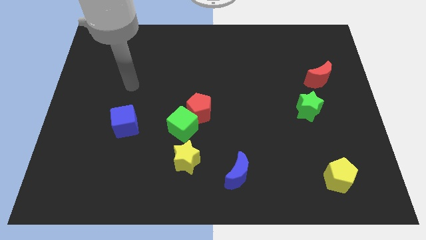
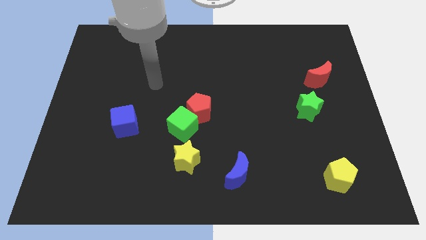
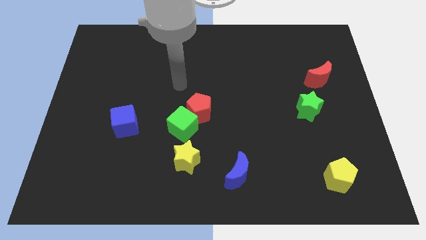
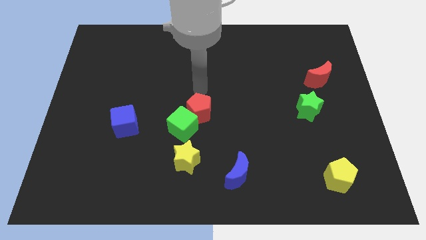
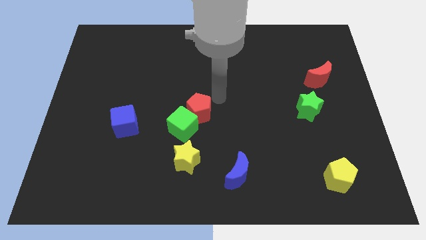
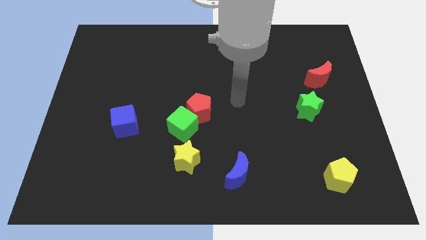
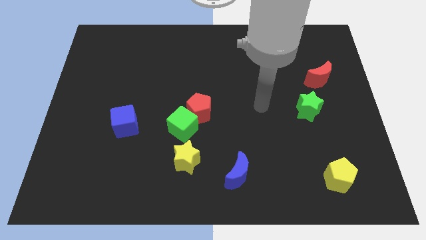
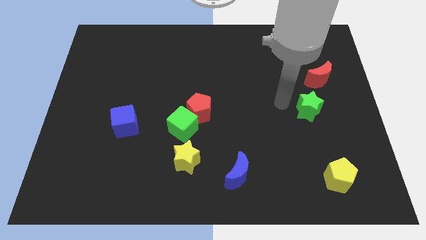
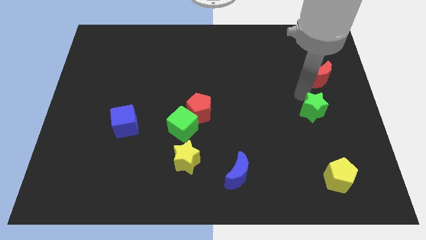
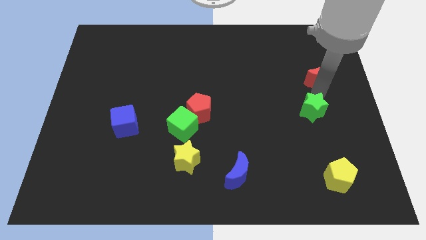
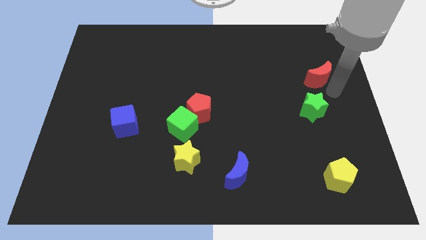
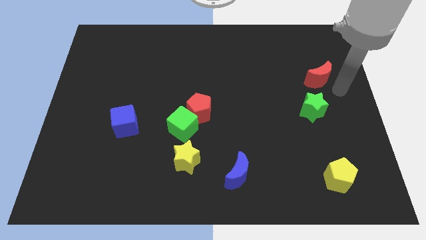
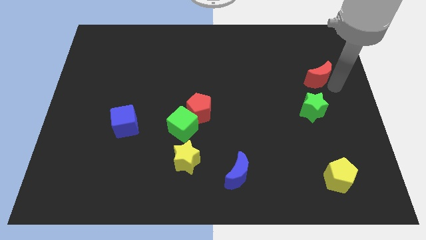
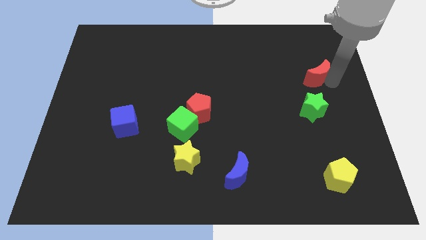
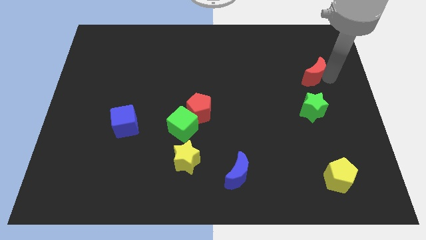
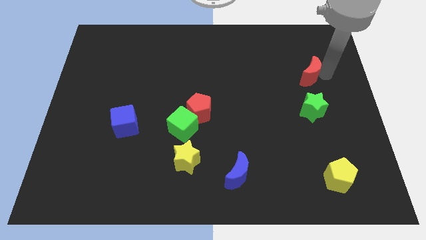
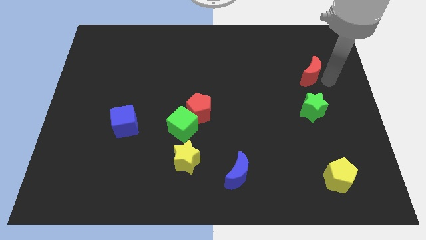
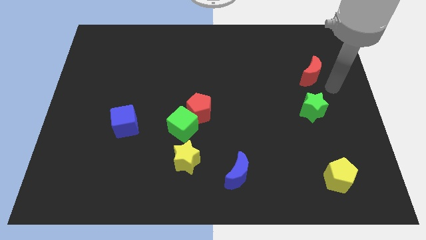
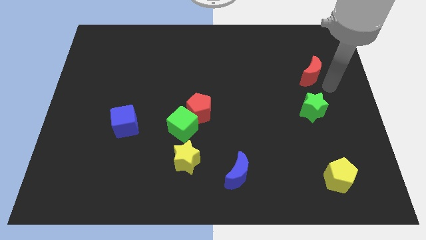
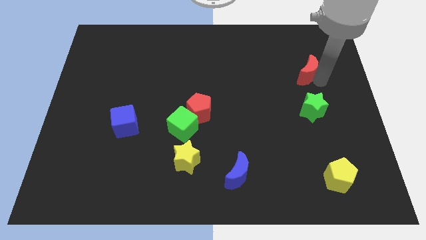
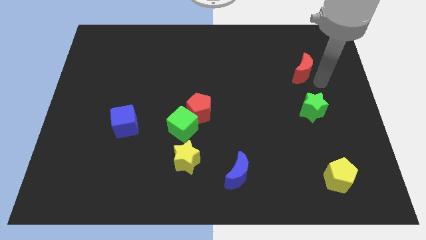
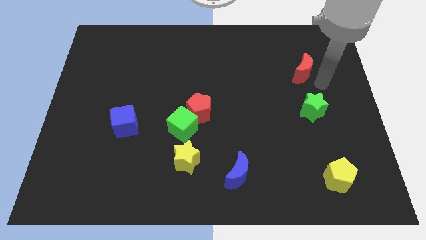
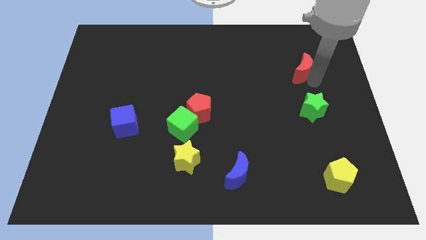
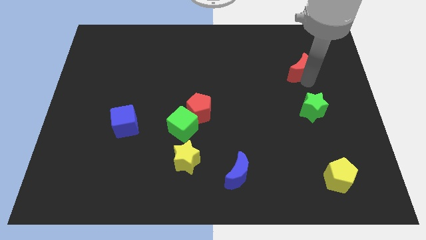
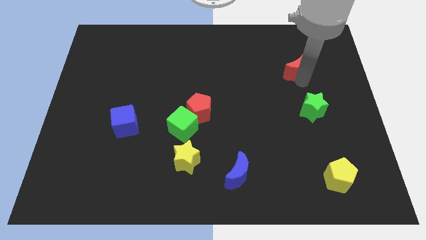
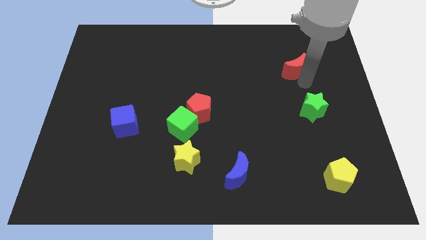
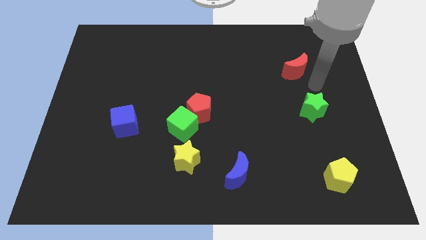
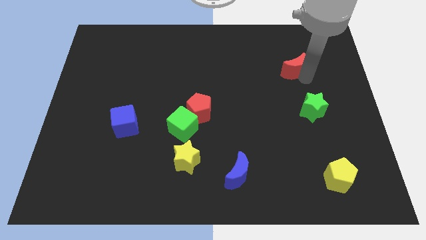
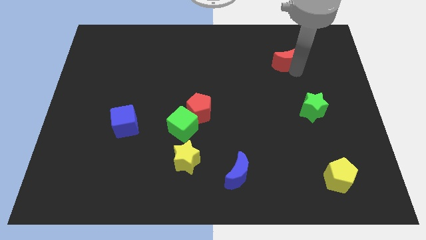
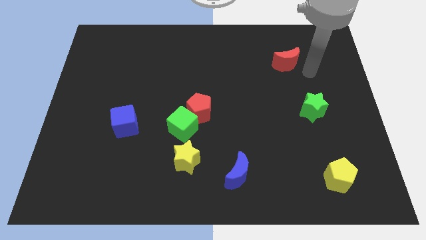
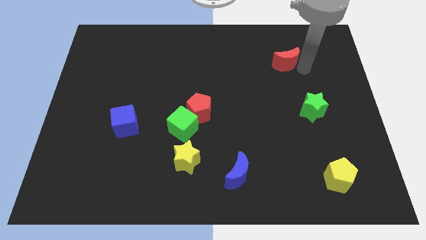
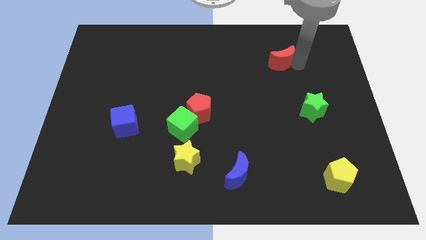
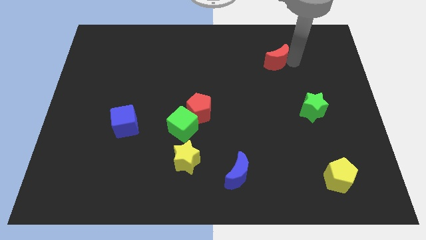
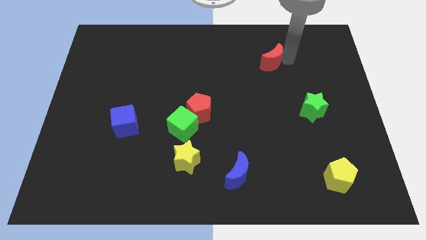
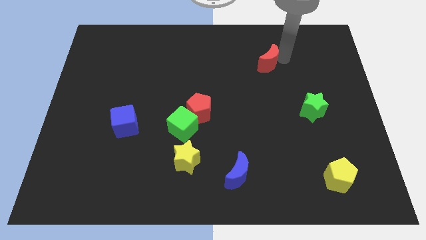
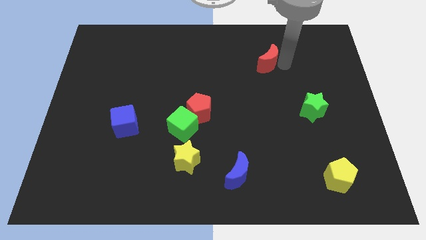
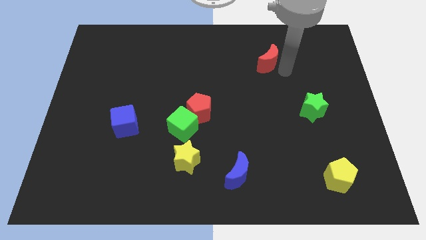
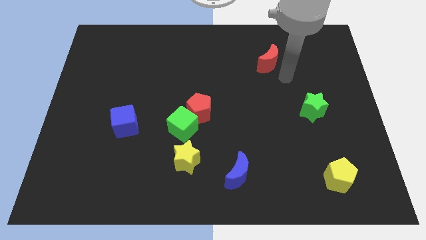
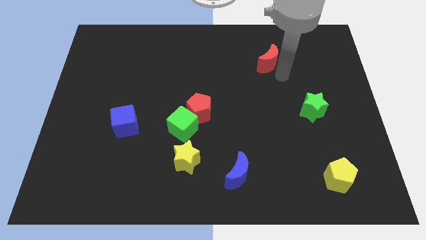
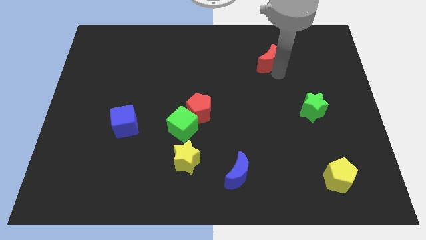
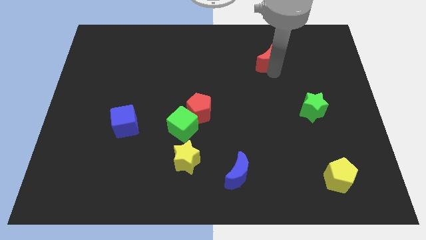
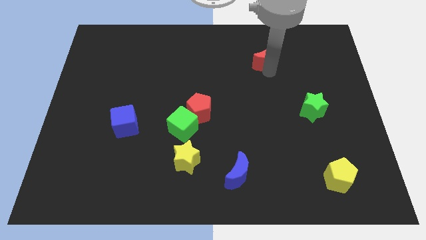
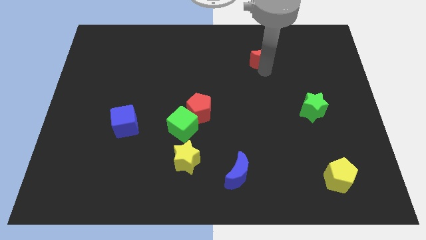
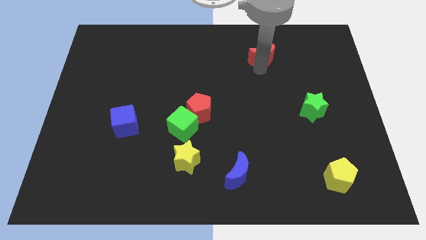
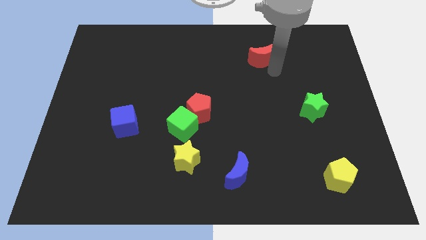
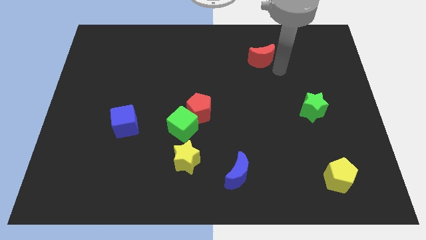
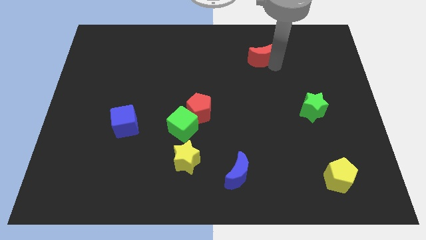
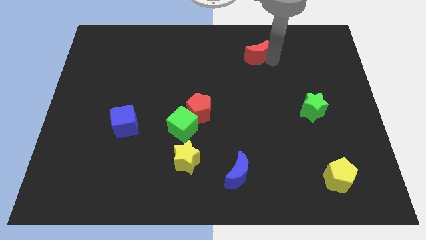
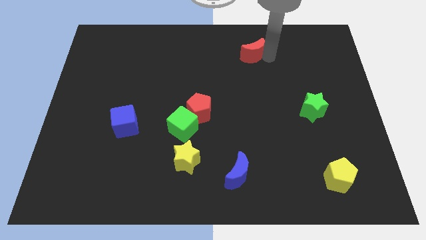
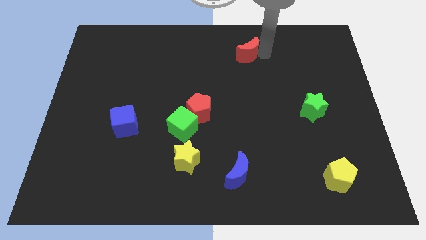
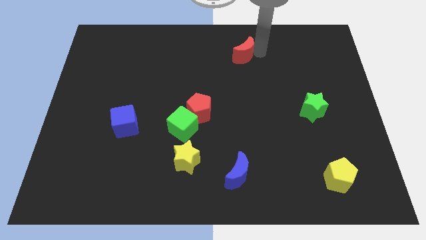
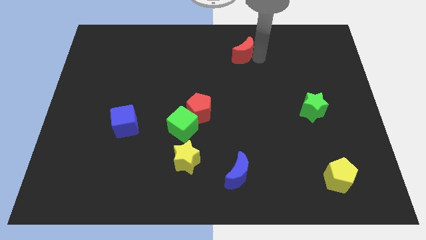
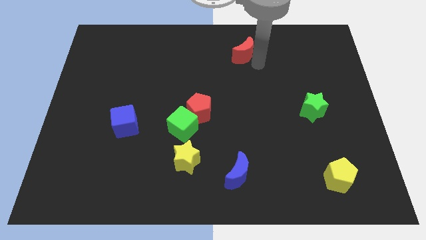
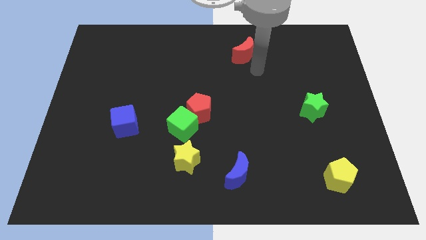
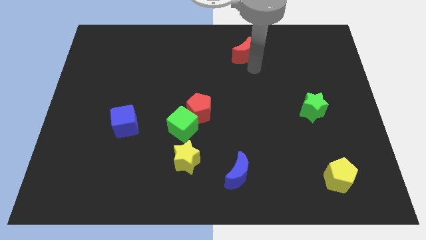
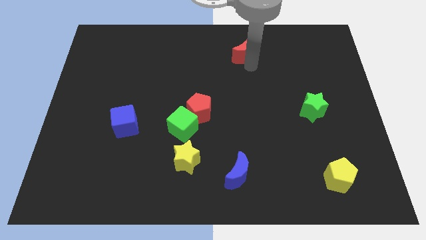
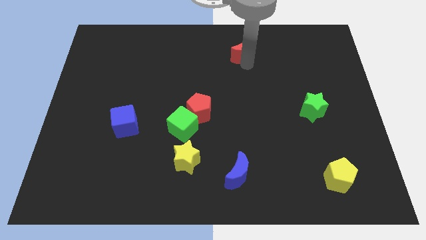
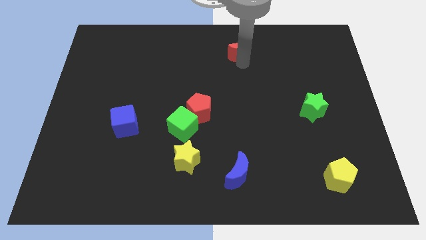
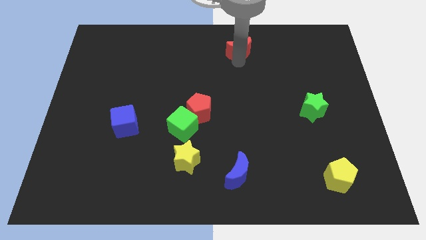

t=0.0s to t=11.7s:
put the red moon to the top side
